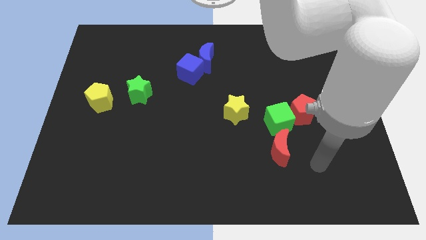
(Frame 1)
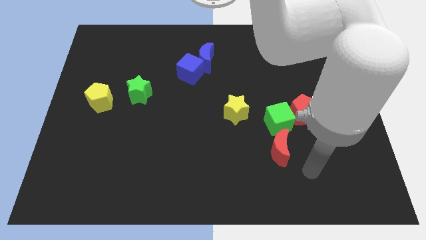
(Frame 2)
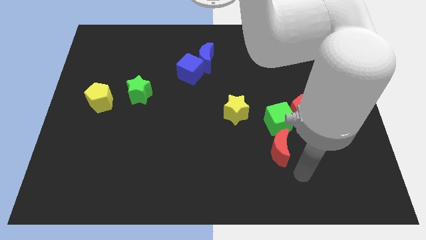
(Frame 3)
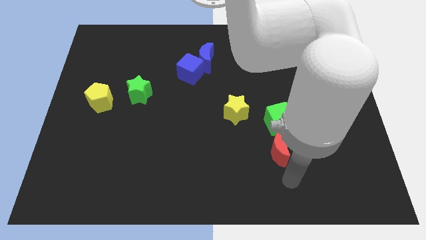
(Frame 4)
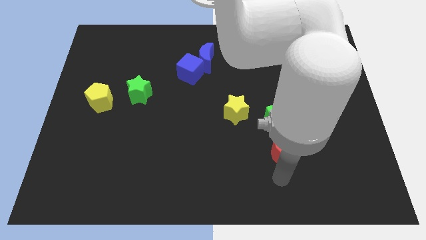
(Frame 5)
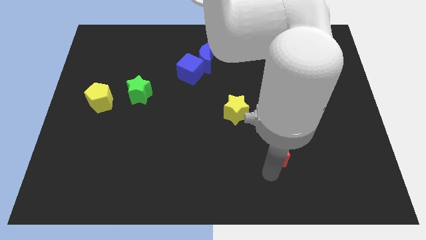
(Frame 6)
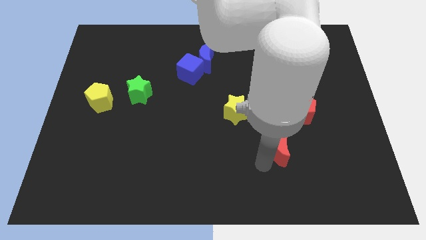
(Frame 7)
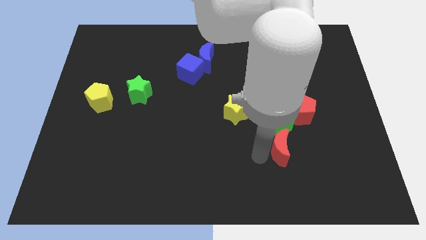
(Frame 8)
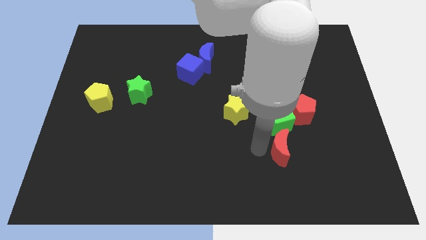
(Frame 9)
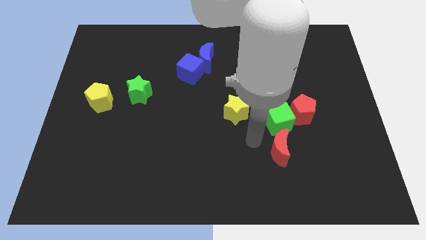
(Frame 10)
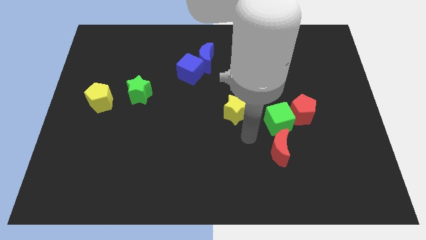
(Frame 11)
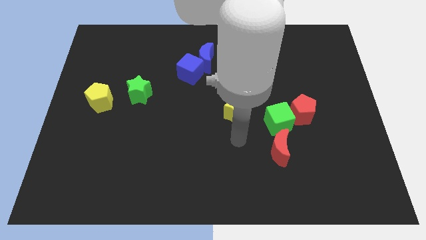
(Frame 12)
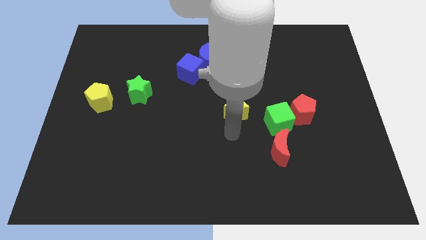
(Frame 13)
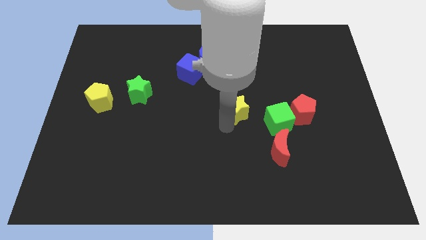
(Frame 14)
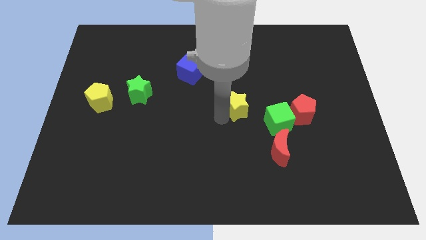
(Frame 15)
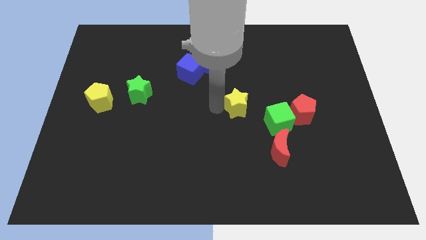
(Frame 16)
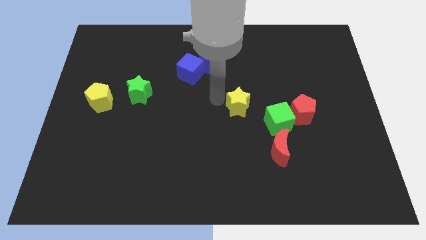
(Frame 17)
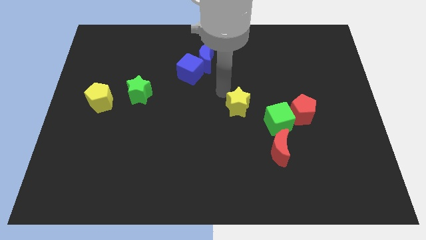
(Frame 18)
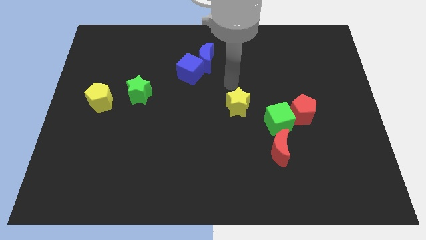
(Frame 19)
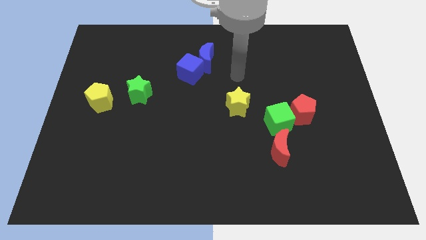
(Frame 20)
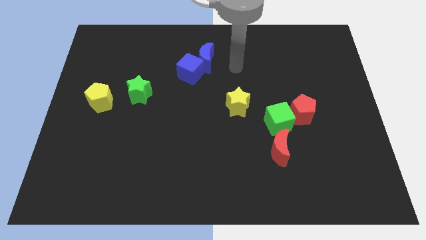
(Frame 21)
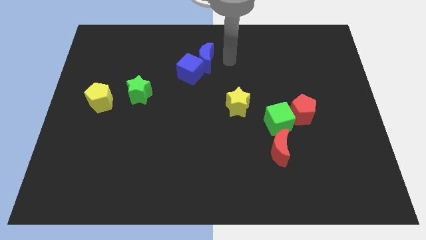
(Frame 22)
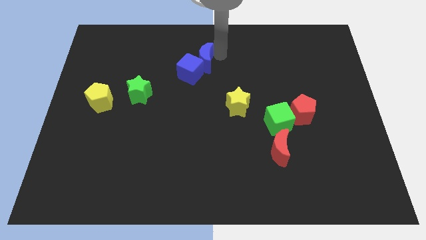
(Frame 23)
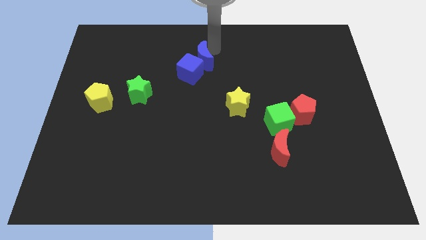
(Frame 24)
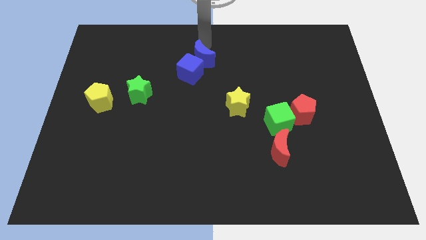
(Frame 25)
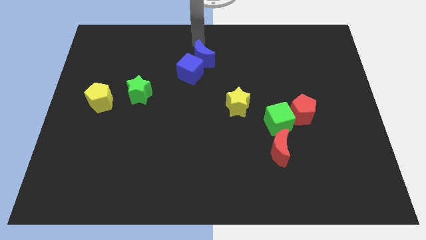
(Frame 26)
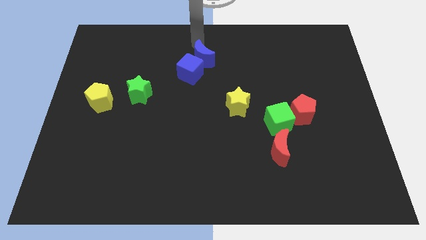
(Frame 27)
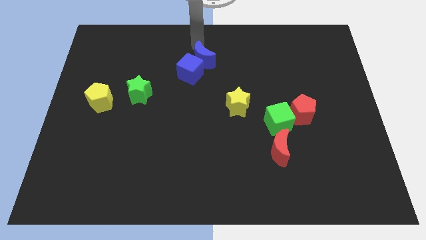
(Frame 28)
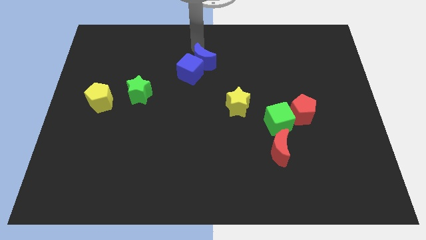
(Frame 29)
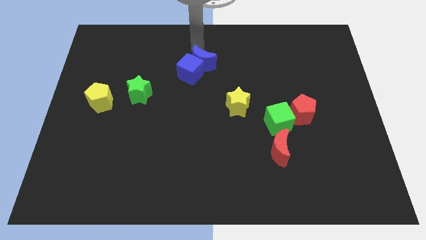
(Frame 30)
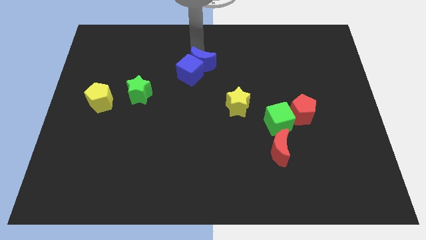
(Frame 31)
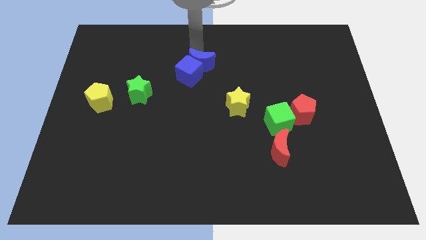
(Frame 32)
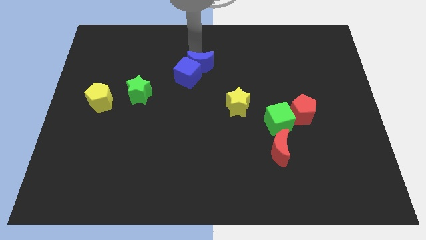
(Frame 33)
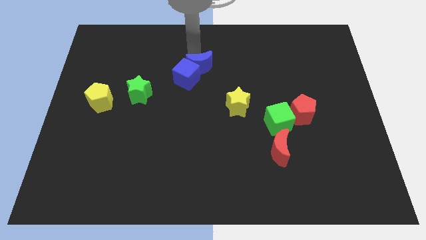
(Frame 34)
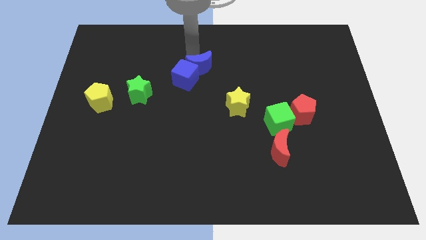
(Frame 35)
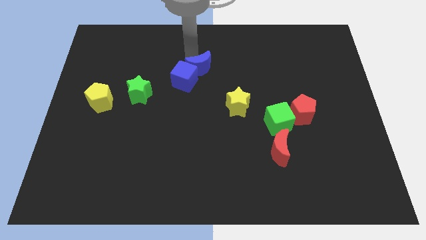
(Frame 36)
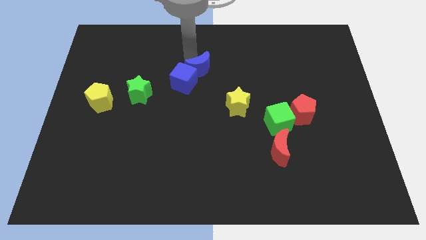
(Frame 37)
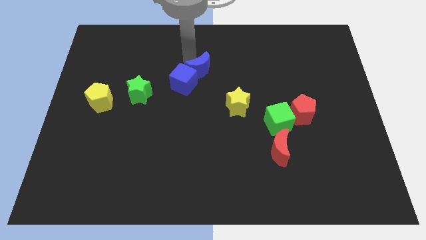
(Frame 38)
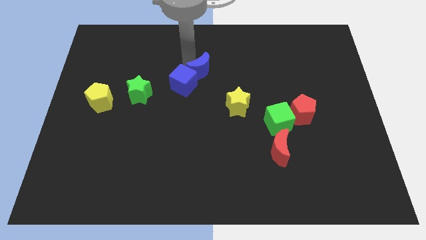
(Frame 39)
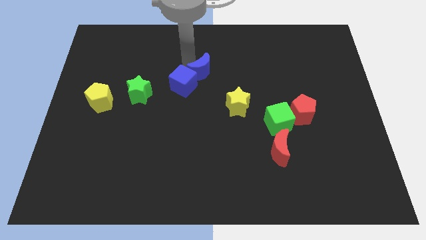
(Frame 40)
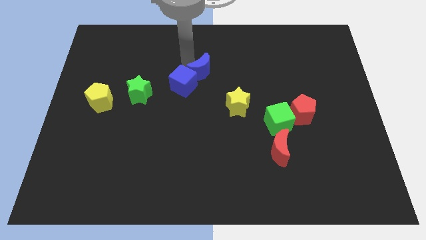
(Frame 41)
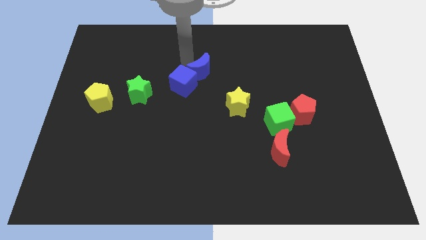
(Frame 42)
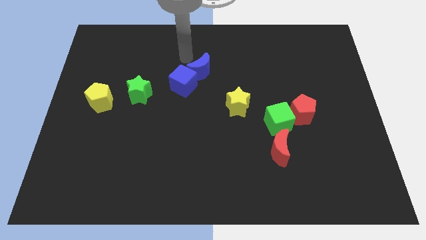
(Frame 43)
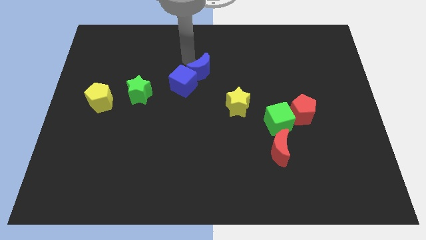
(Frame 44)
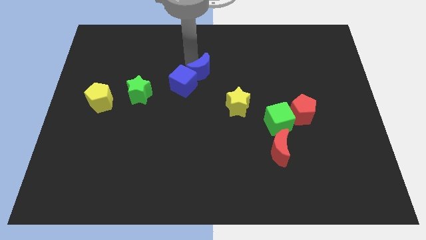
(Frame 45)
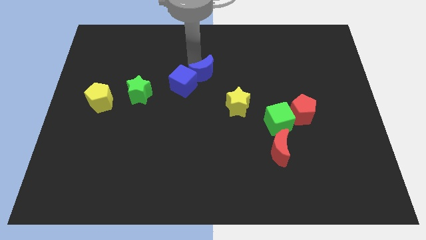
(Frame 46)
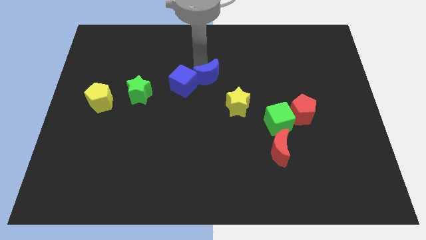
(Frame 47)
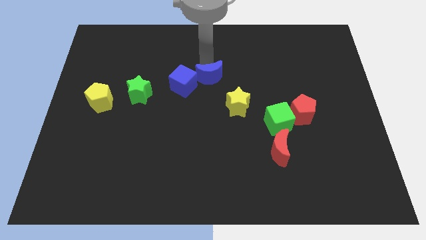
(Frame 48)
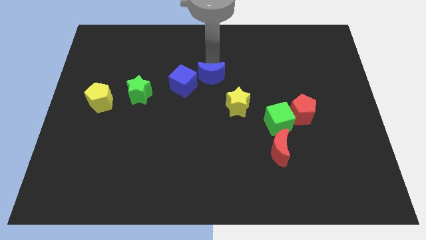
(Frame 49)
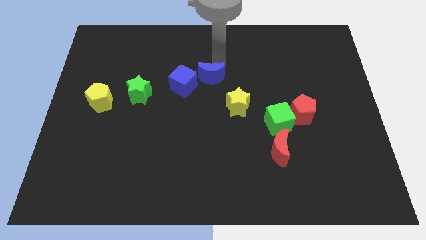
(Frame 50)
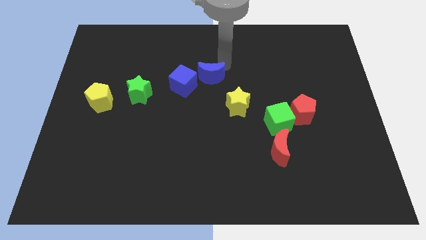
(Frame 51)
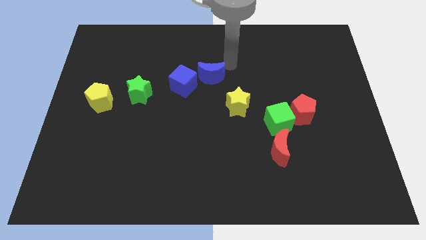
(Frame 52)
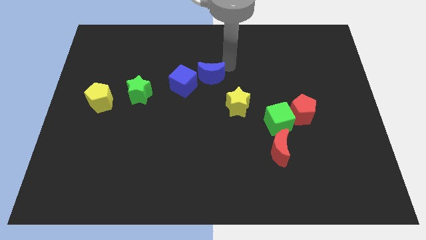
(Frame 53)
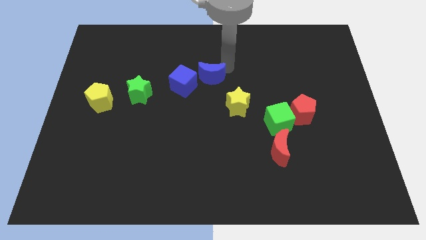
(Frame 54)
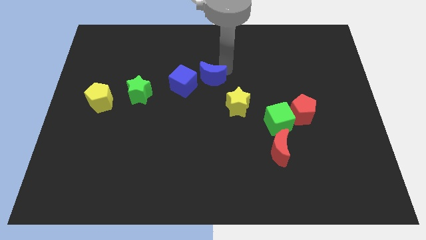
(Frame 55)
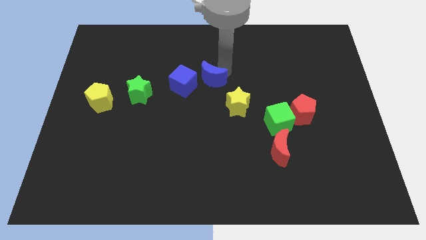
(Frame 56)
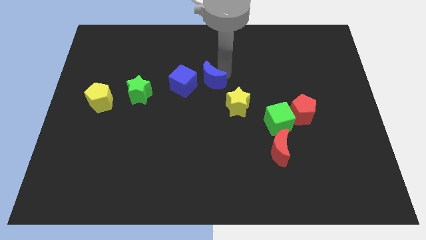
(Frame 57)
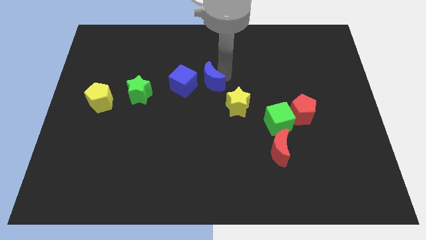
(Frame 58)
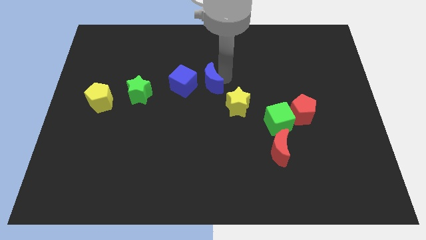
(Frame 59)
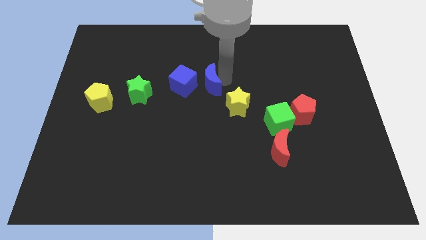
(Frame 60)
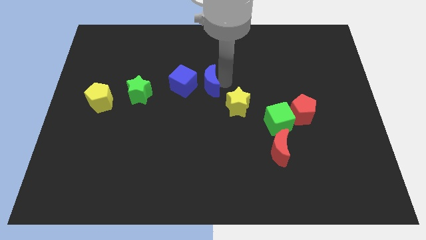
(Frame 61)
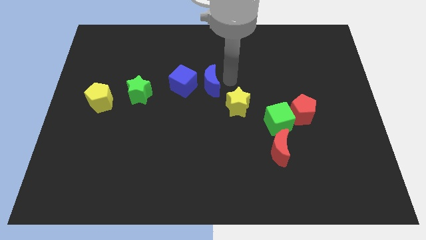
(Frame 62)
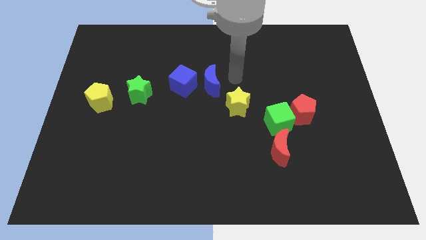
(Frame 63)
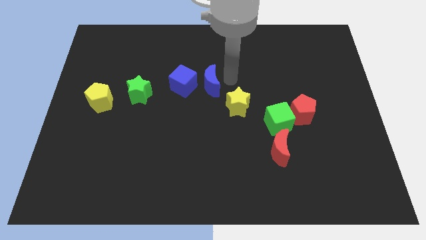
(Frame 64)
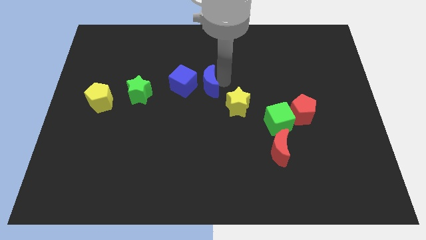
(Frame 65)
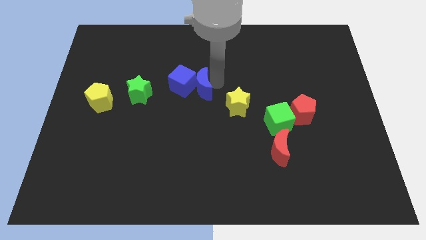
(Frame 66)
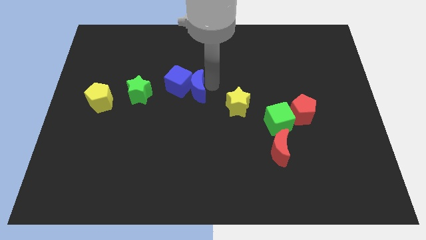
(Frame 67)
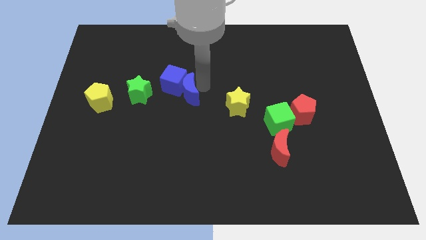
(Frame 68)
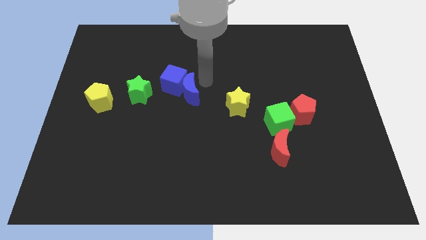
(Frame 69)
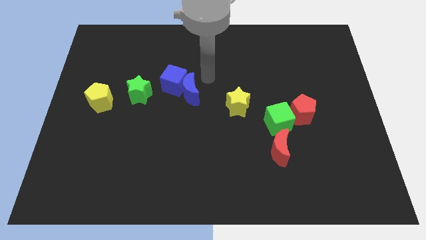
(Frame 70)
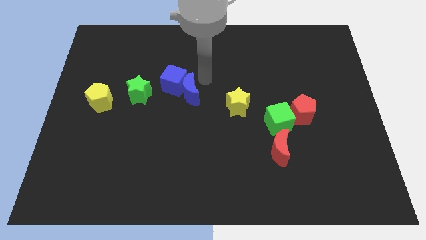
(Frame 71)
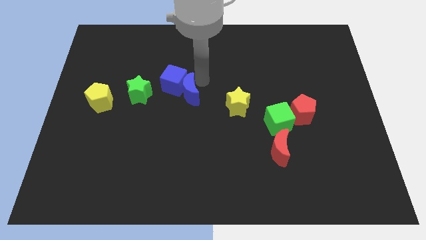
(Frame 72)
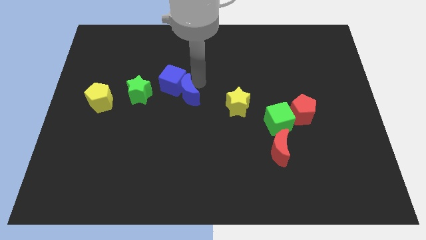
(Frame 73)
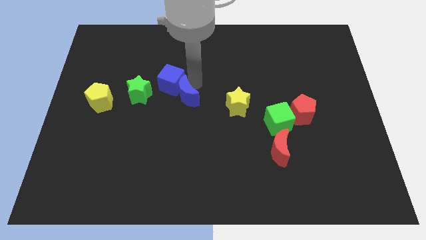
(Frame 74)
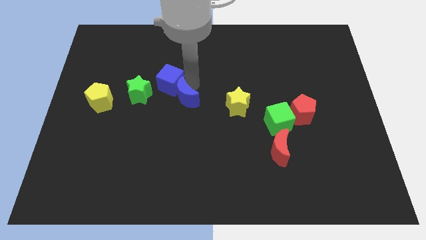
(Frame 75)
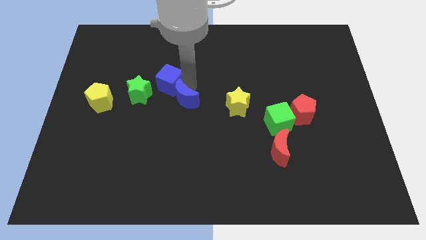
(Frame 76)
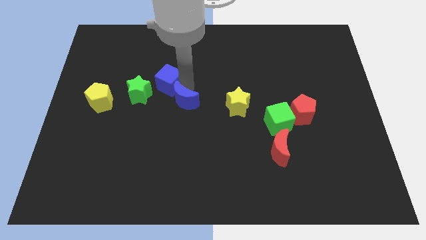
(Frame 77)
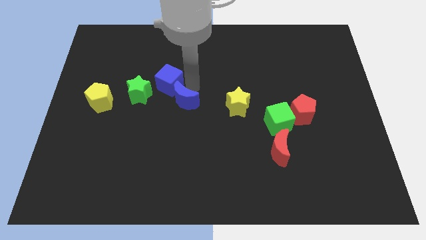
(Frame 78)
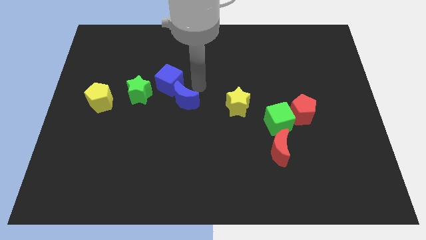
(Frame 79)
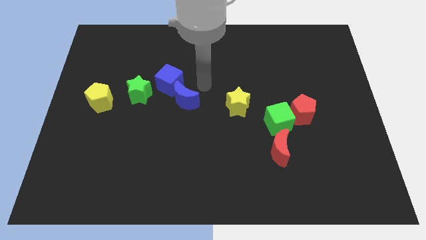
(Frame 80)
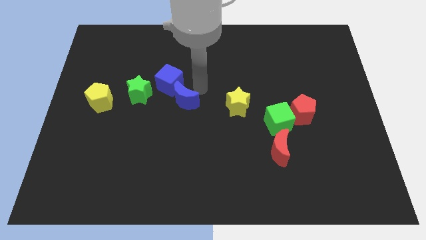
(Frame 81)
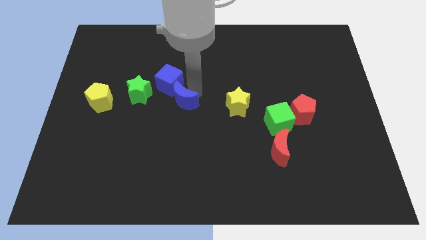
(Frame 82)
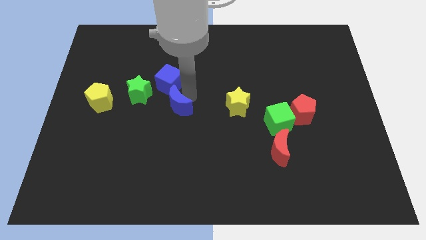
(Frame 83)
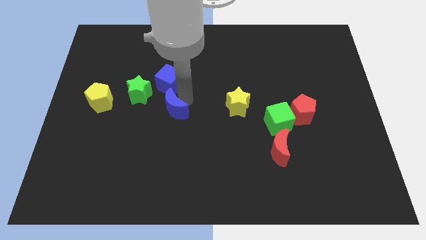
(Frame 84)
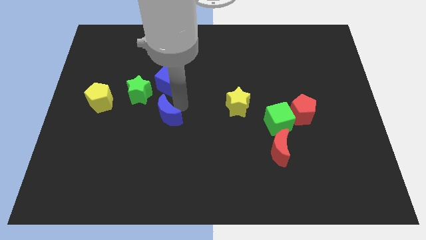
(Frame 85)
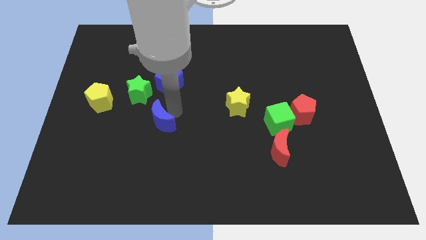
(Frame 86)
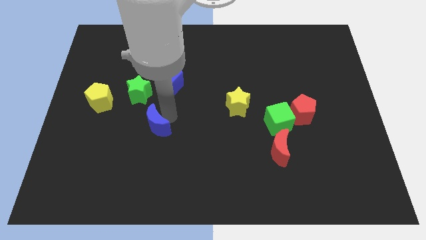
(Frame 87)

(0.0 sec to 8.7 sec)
put the blue moon below the green star
